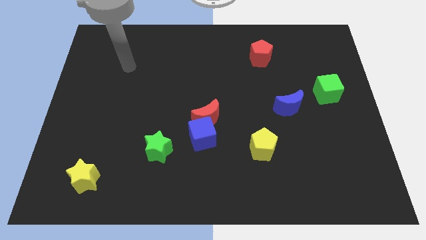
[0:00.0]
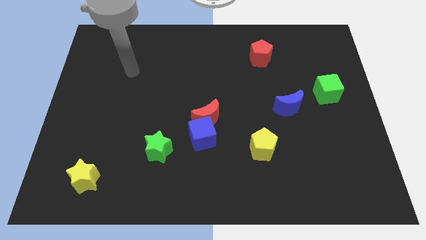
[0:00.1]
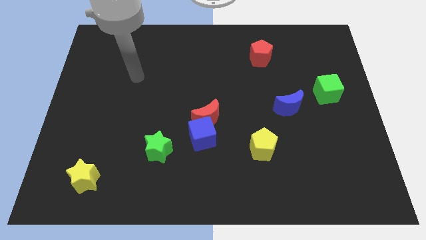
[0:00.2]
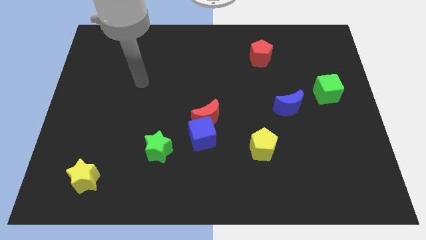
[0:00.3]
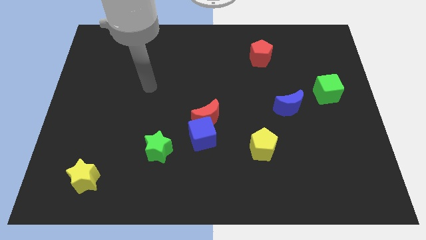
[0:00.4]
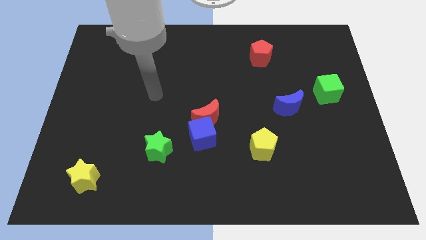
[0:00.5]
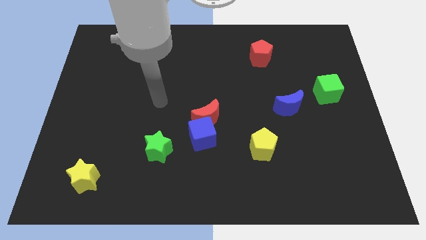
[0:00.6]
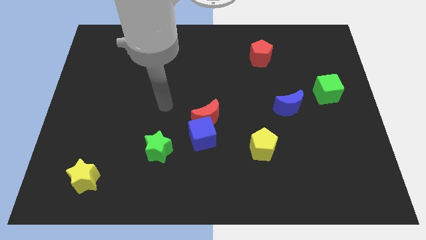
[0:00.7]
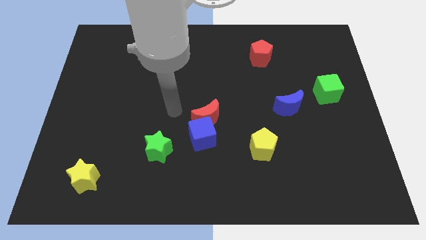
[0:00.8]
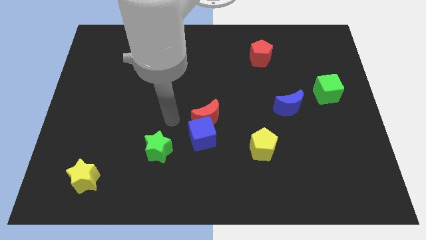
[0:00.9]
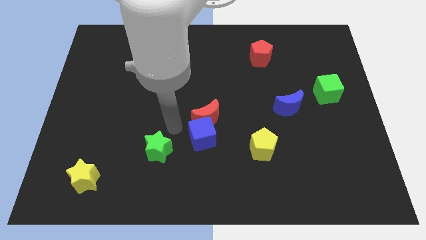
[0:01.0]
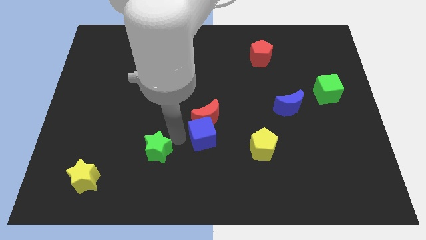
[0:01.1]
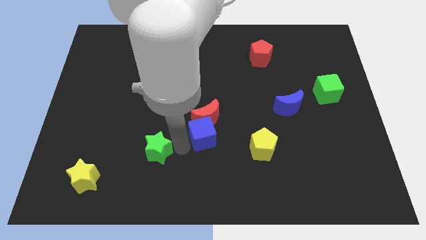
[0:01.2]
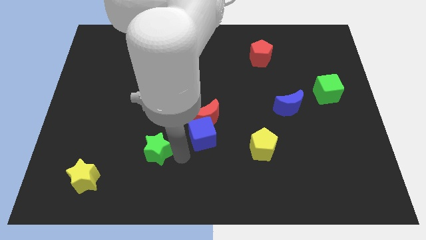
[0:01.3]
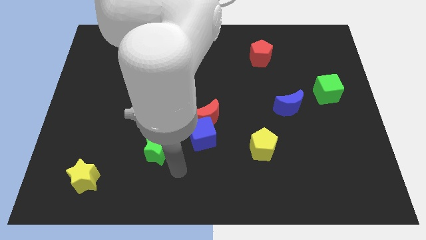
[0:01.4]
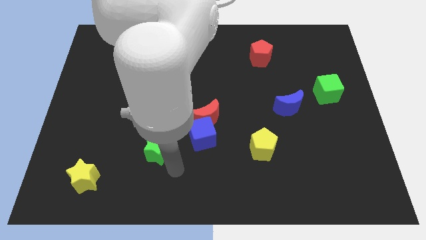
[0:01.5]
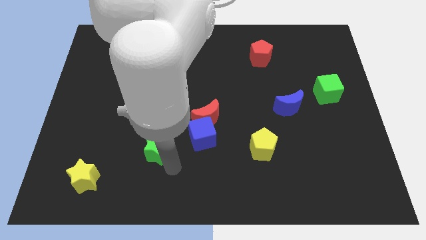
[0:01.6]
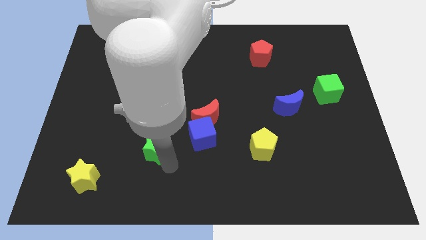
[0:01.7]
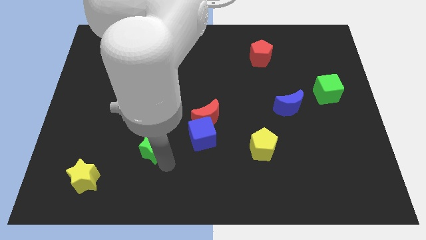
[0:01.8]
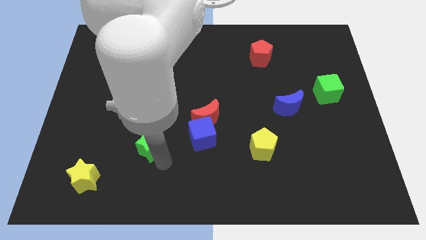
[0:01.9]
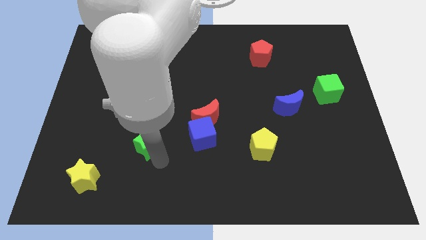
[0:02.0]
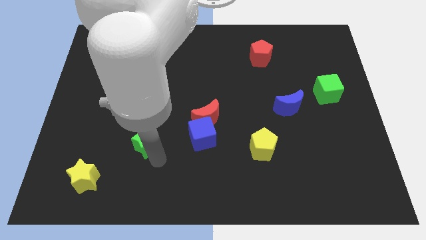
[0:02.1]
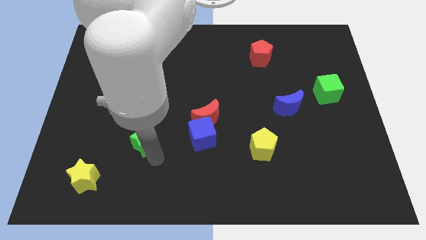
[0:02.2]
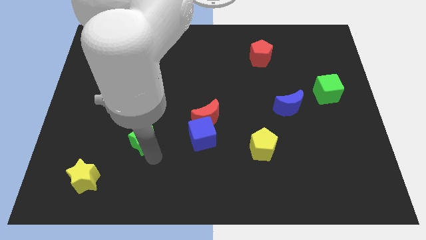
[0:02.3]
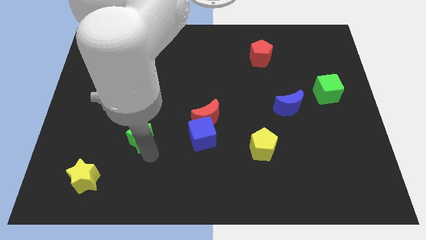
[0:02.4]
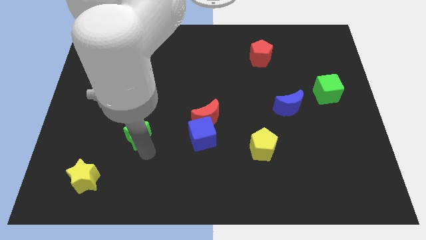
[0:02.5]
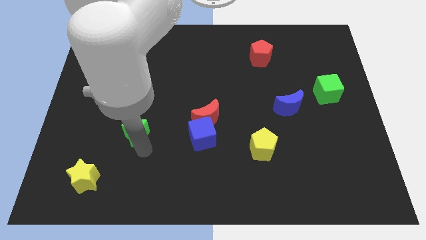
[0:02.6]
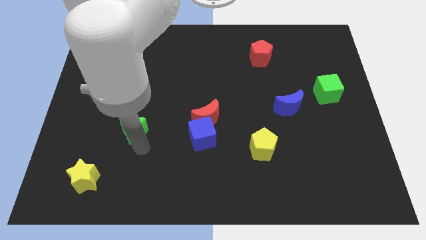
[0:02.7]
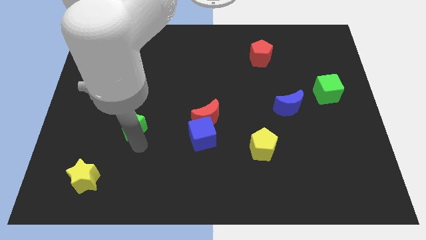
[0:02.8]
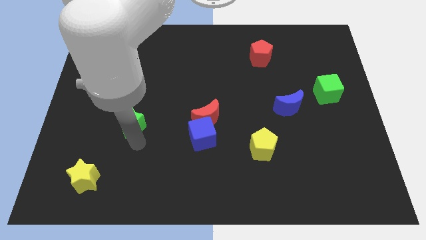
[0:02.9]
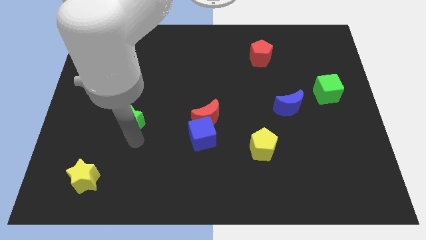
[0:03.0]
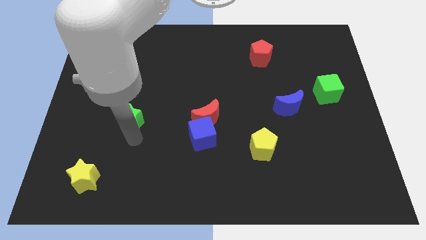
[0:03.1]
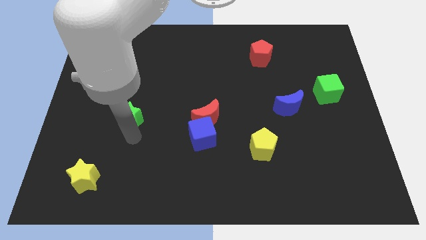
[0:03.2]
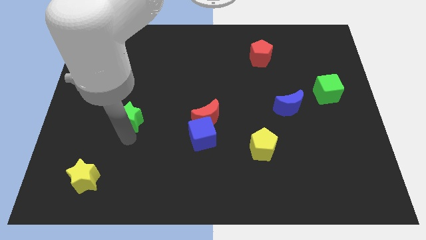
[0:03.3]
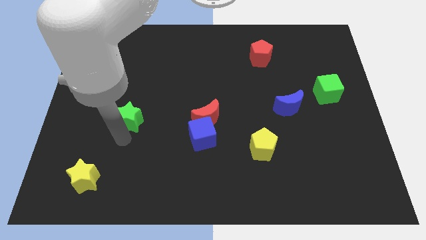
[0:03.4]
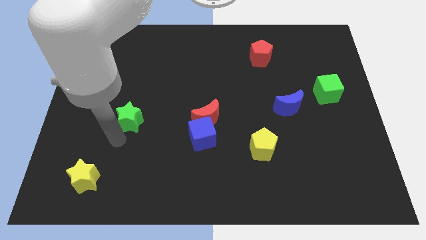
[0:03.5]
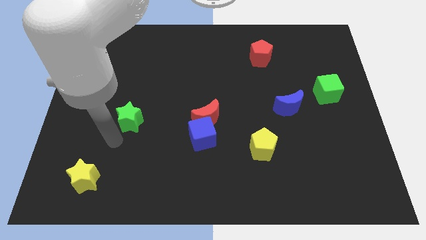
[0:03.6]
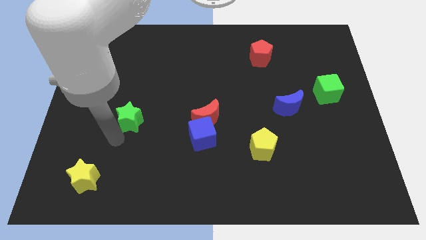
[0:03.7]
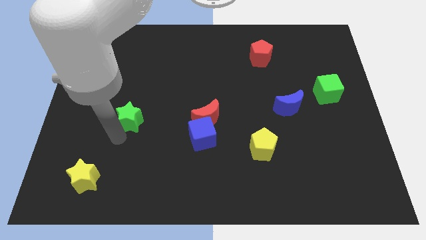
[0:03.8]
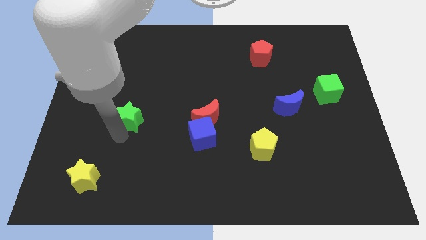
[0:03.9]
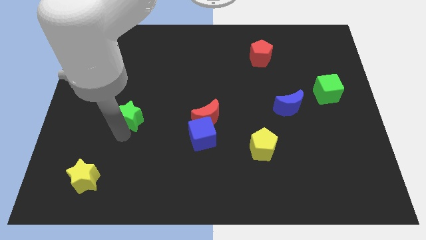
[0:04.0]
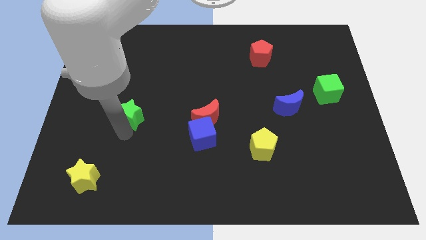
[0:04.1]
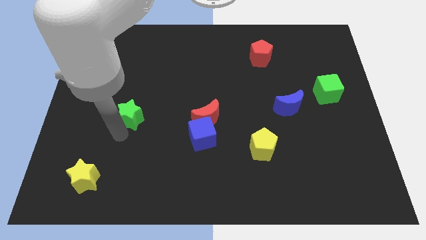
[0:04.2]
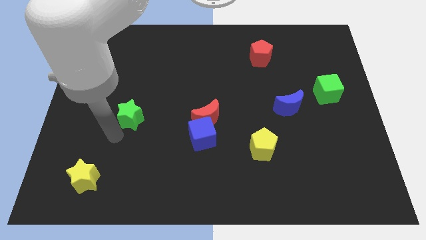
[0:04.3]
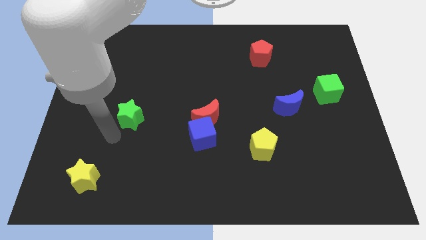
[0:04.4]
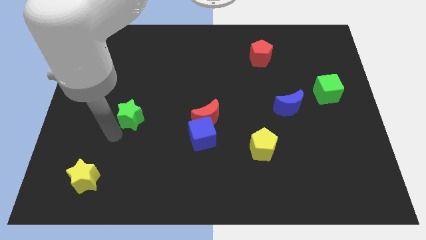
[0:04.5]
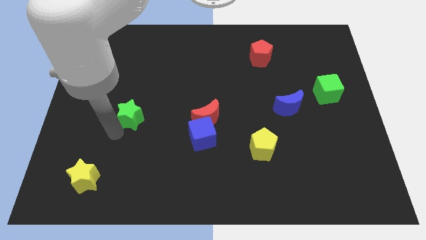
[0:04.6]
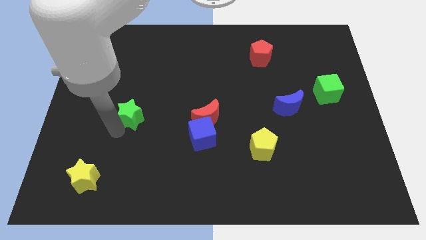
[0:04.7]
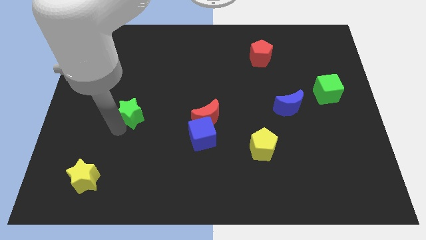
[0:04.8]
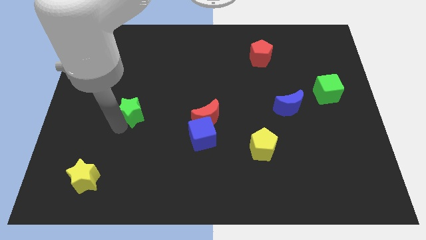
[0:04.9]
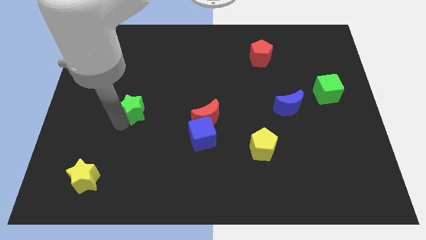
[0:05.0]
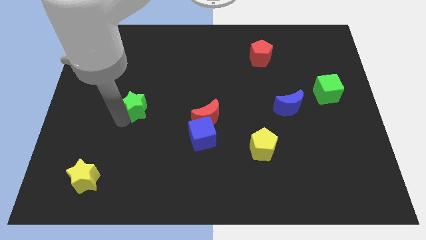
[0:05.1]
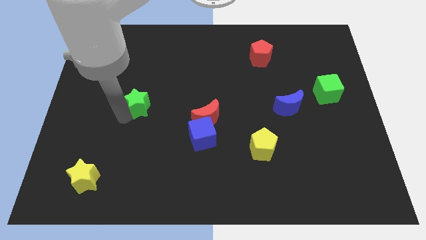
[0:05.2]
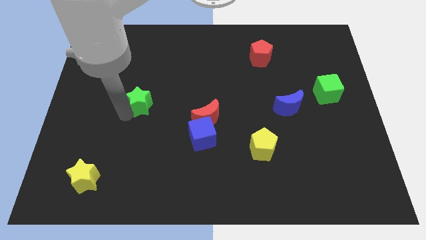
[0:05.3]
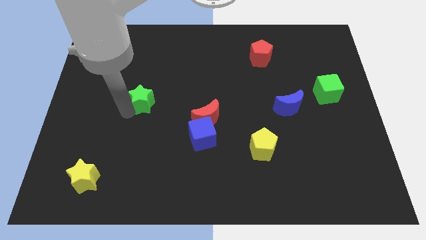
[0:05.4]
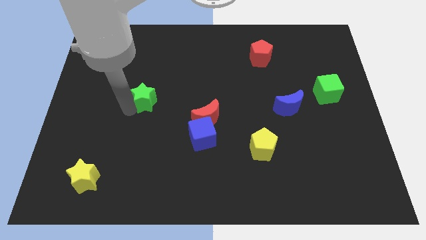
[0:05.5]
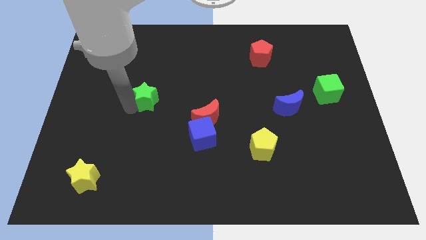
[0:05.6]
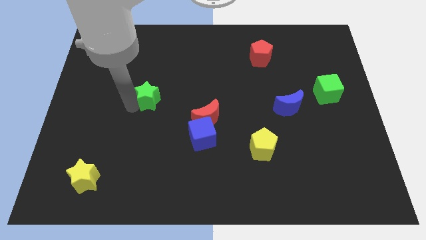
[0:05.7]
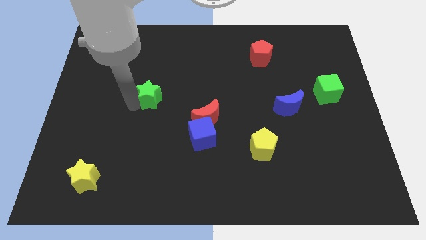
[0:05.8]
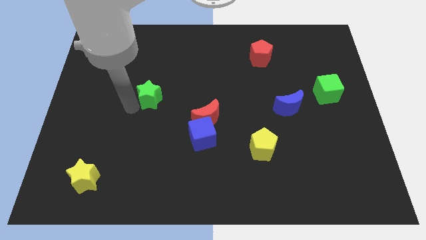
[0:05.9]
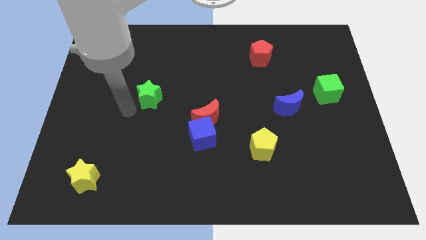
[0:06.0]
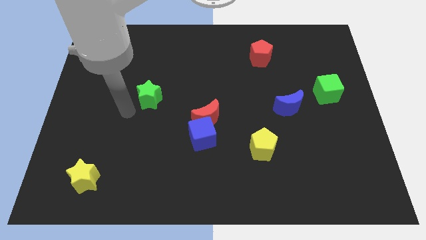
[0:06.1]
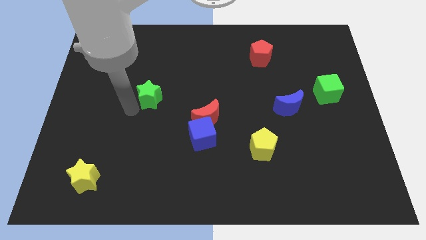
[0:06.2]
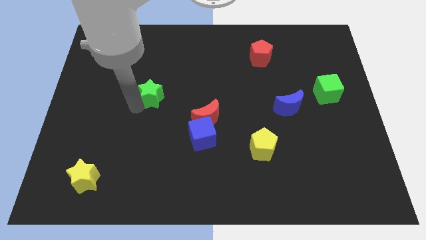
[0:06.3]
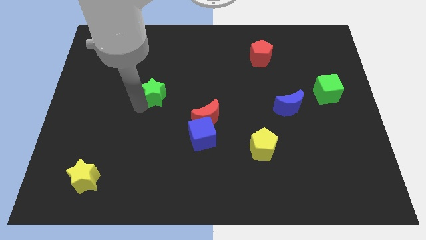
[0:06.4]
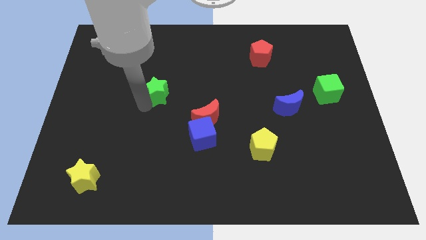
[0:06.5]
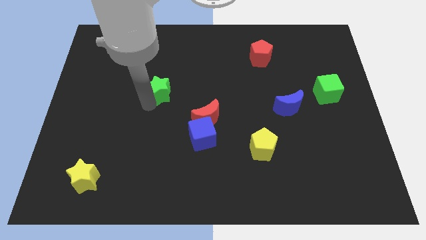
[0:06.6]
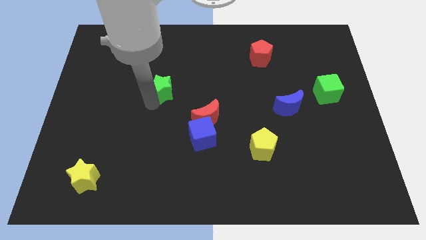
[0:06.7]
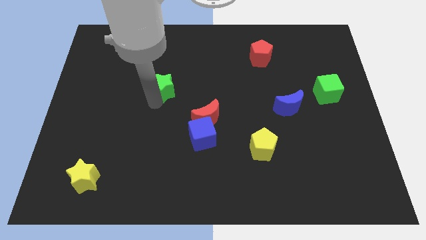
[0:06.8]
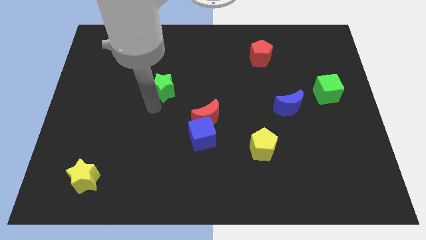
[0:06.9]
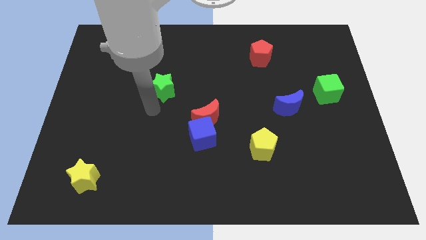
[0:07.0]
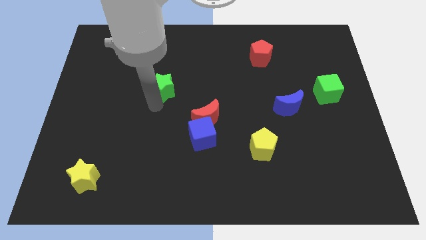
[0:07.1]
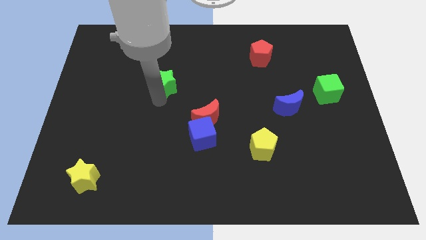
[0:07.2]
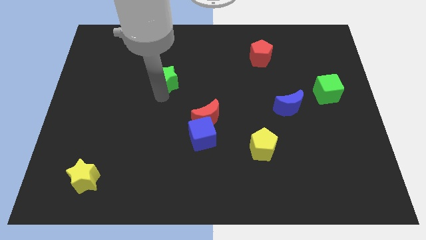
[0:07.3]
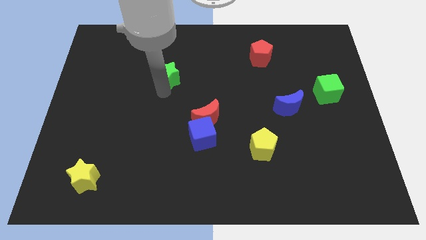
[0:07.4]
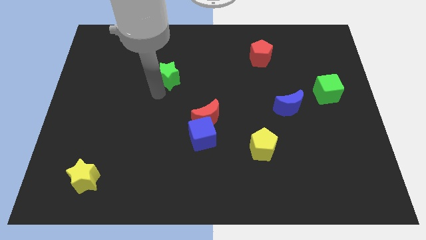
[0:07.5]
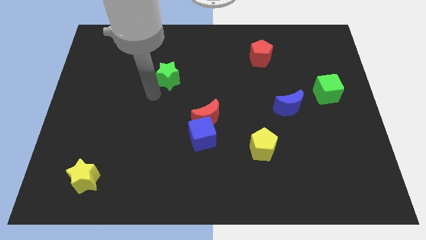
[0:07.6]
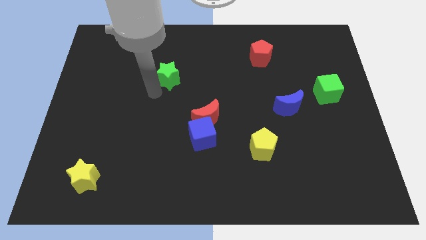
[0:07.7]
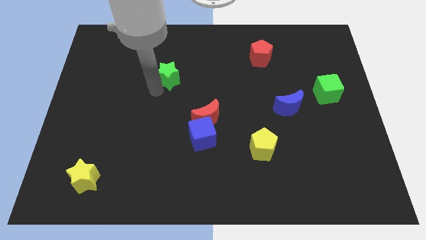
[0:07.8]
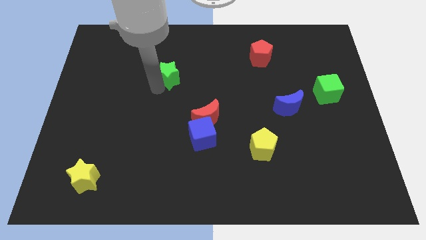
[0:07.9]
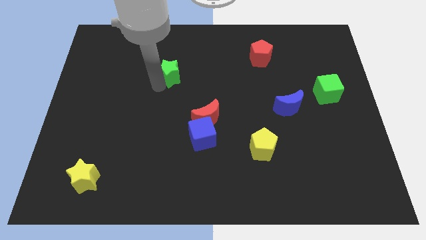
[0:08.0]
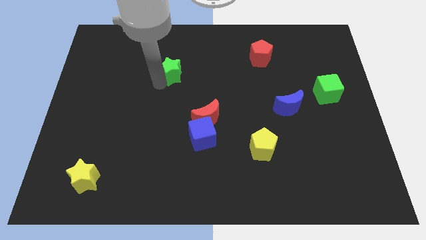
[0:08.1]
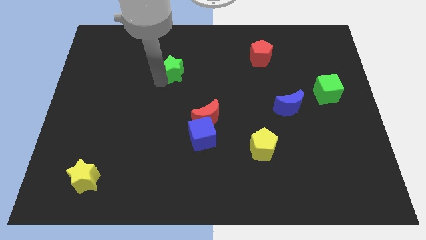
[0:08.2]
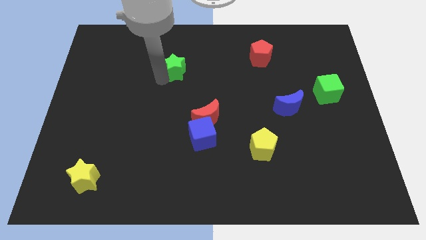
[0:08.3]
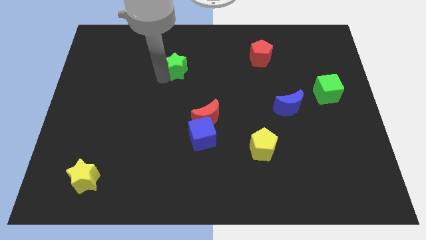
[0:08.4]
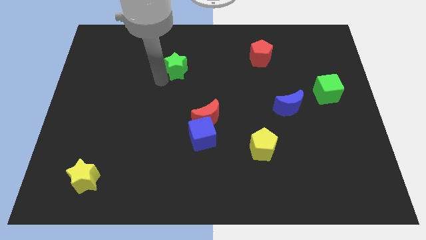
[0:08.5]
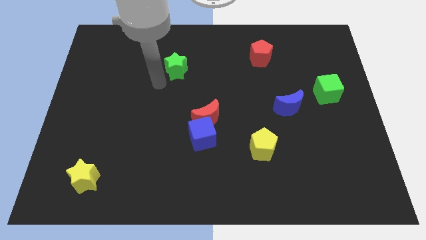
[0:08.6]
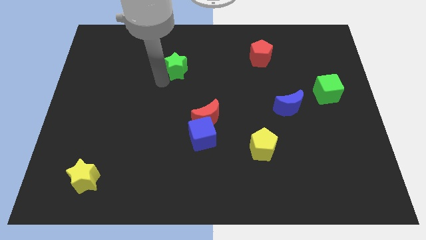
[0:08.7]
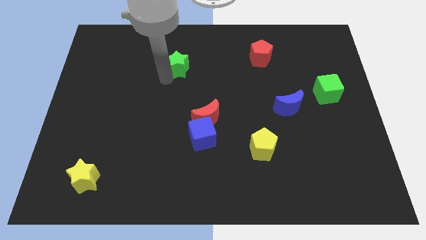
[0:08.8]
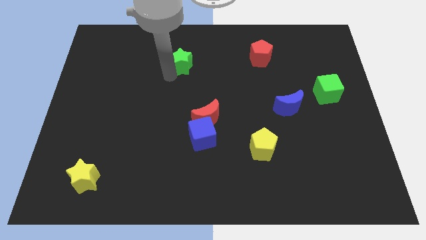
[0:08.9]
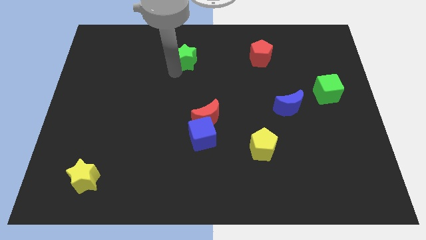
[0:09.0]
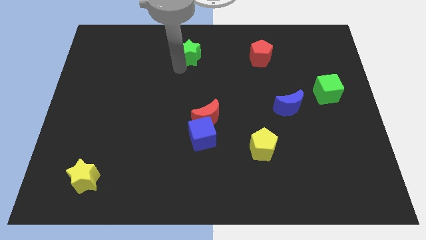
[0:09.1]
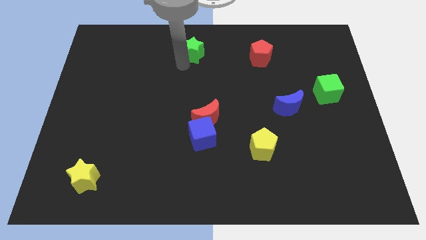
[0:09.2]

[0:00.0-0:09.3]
put the green star to the towards your base
